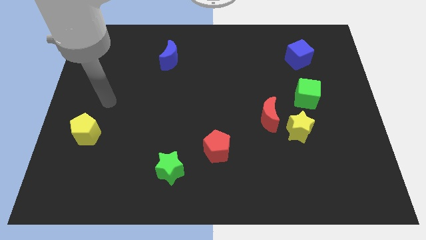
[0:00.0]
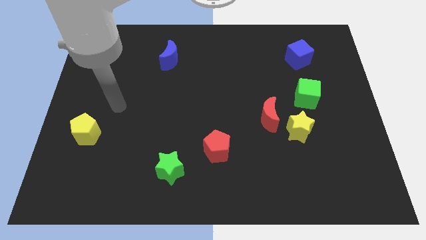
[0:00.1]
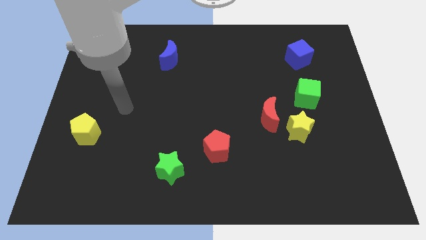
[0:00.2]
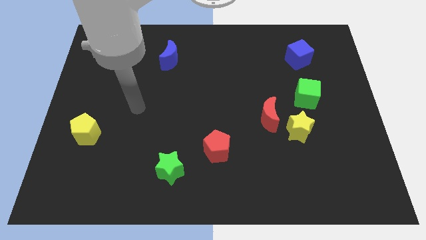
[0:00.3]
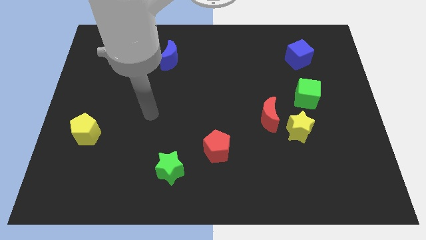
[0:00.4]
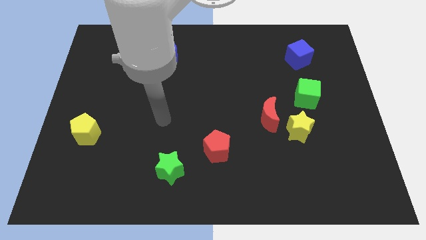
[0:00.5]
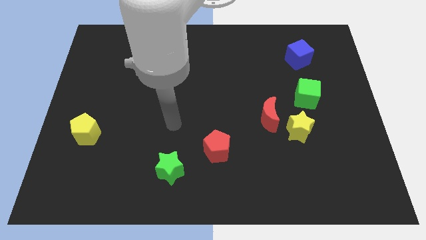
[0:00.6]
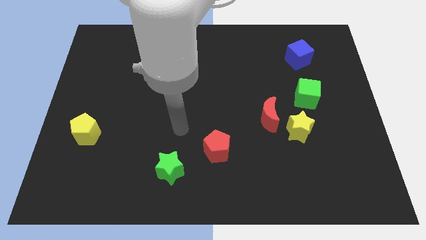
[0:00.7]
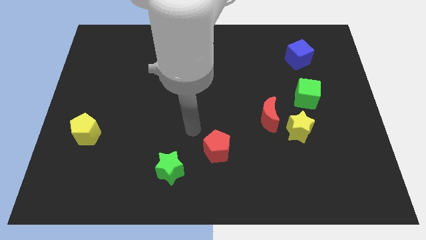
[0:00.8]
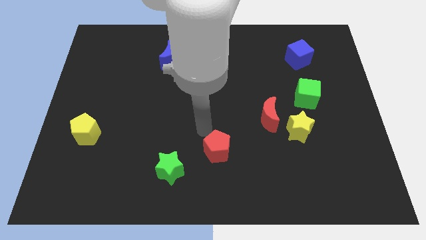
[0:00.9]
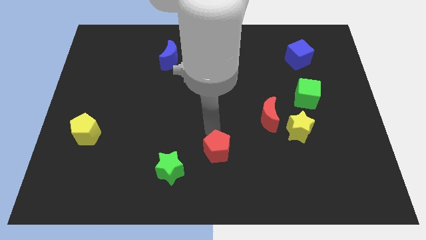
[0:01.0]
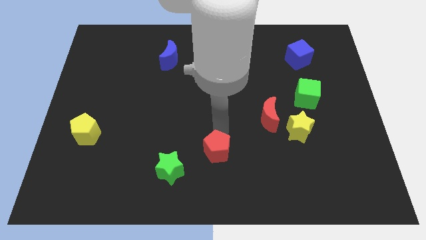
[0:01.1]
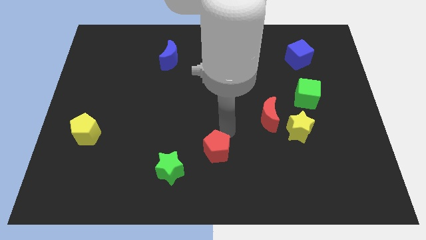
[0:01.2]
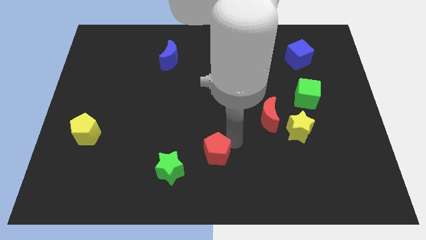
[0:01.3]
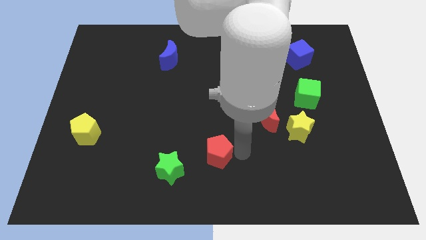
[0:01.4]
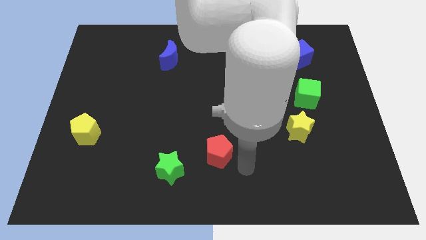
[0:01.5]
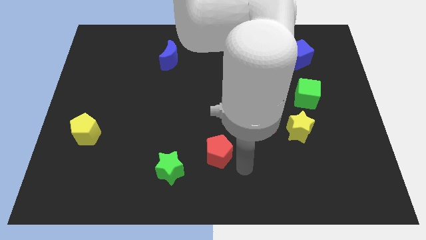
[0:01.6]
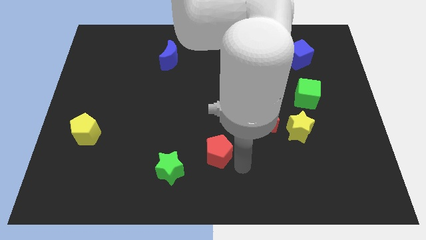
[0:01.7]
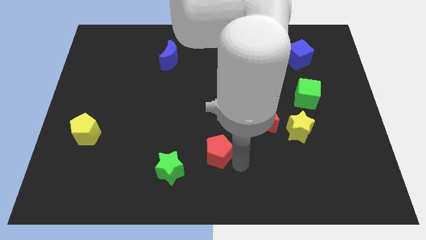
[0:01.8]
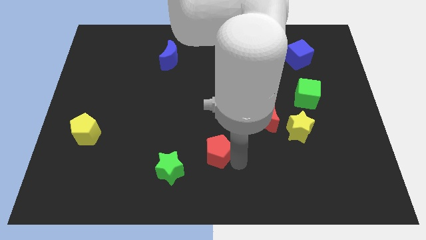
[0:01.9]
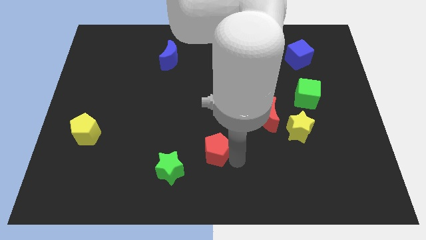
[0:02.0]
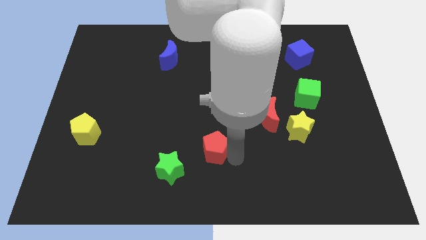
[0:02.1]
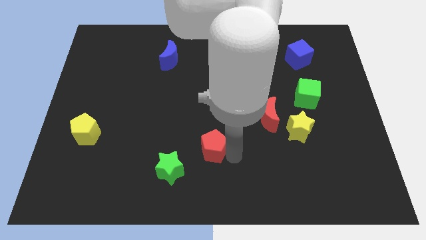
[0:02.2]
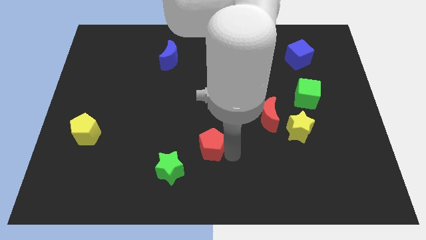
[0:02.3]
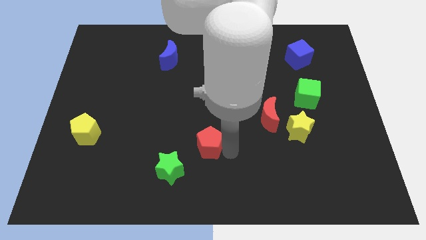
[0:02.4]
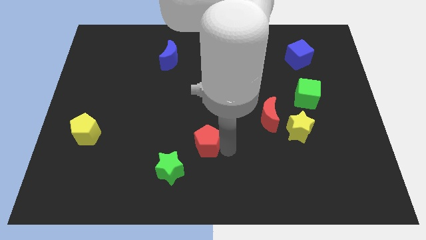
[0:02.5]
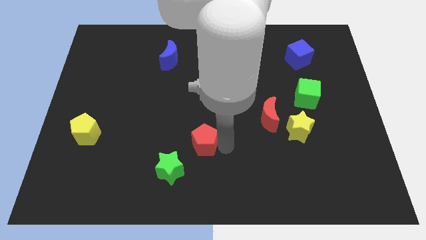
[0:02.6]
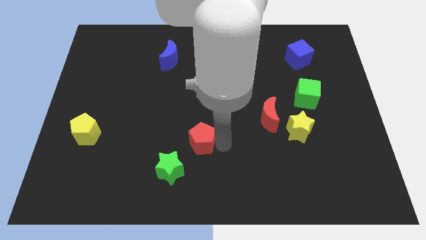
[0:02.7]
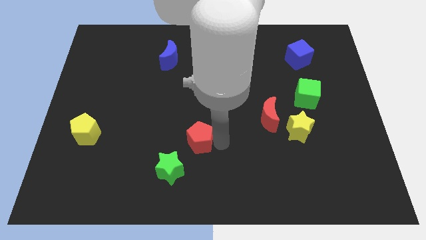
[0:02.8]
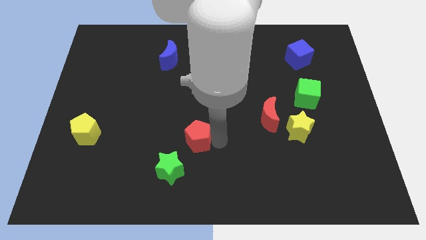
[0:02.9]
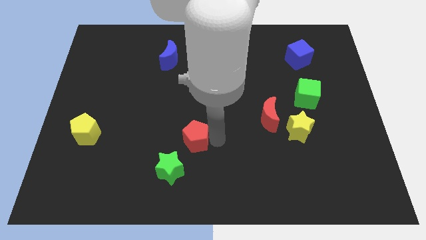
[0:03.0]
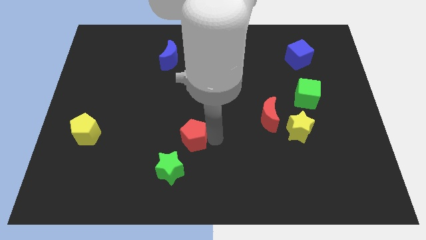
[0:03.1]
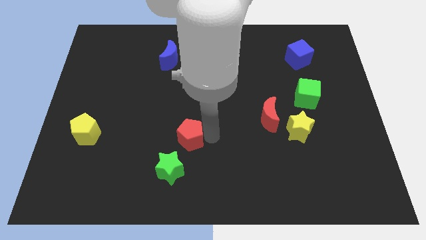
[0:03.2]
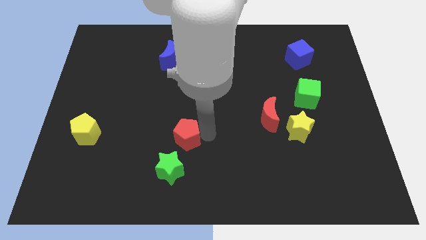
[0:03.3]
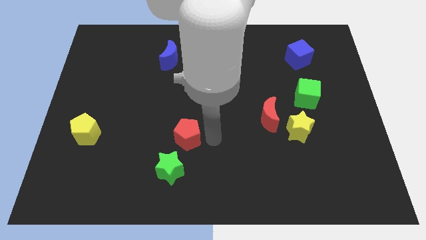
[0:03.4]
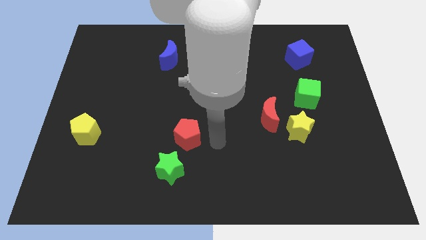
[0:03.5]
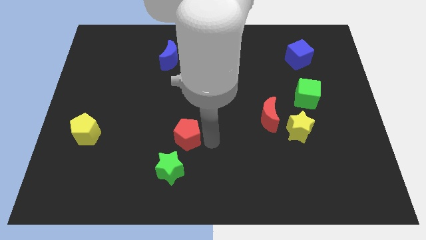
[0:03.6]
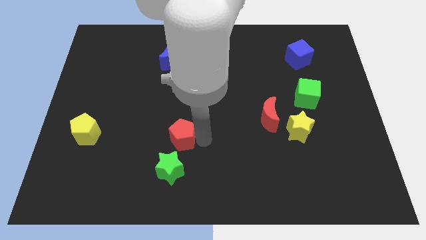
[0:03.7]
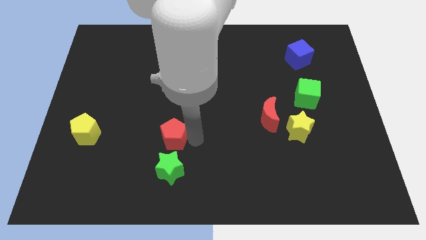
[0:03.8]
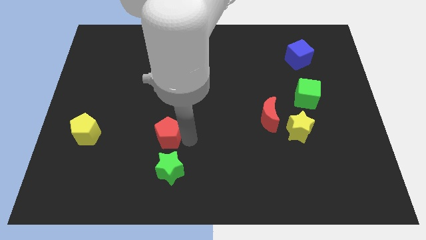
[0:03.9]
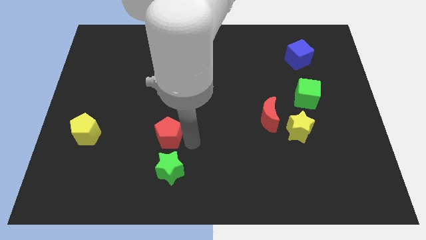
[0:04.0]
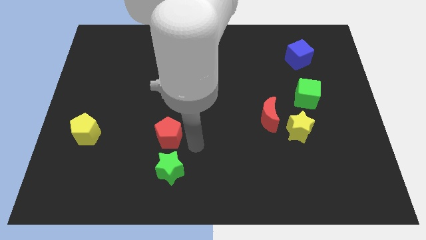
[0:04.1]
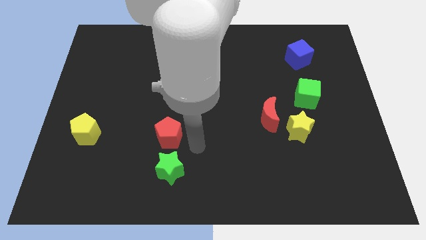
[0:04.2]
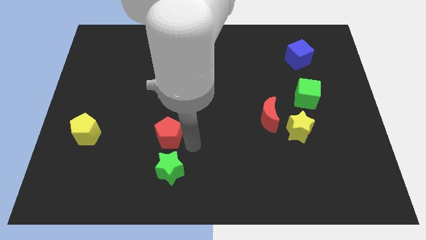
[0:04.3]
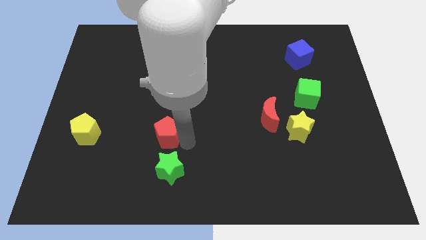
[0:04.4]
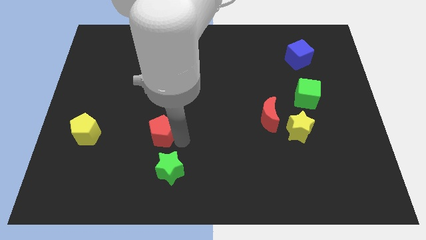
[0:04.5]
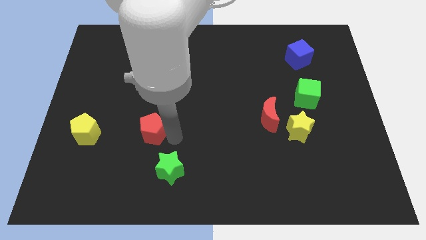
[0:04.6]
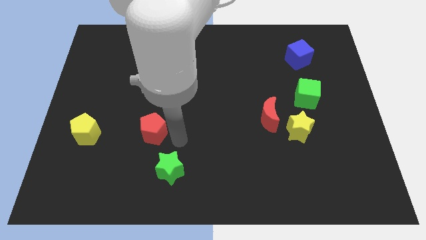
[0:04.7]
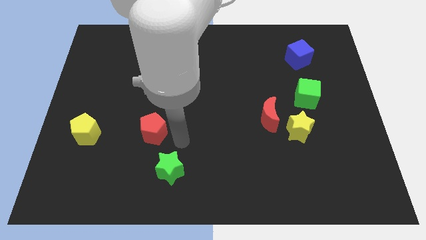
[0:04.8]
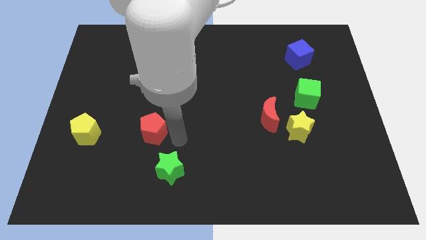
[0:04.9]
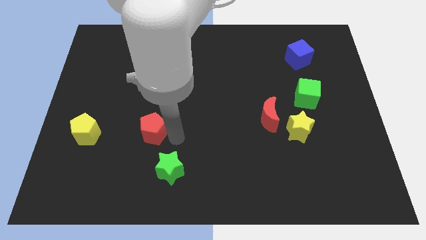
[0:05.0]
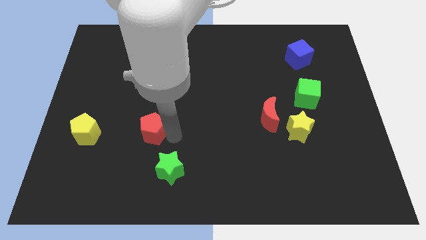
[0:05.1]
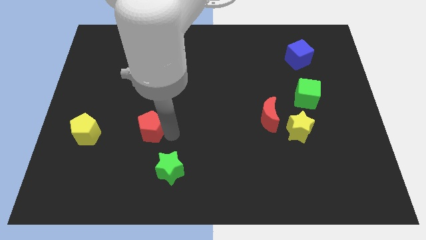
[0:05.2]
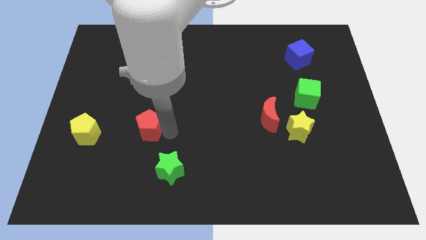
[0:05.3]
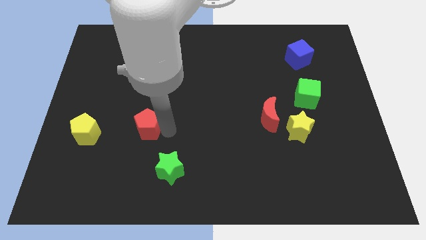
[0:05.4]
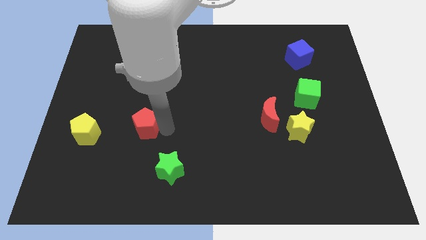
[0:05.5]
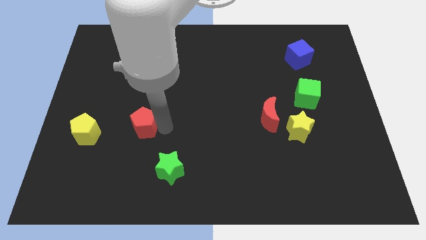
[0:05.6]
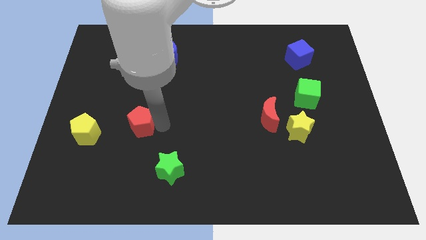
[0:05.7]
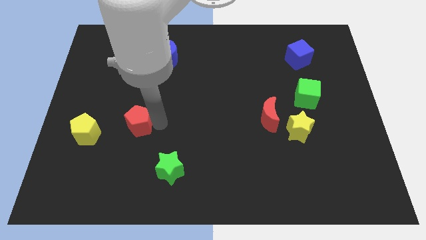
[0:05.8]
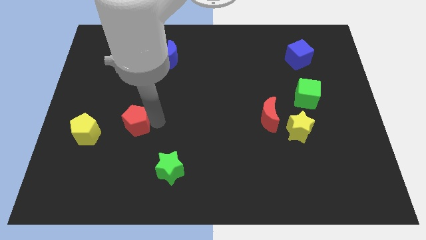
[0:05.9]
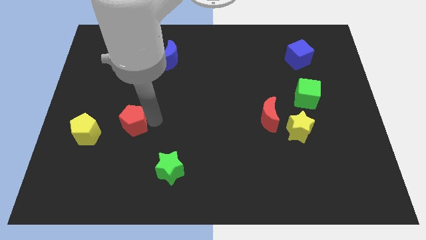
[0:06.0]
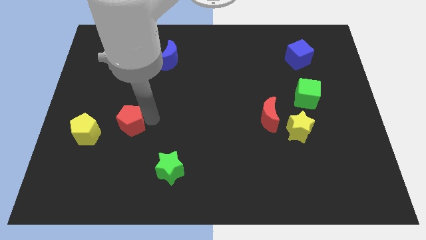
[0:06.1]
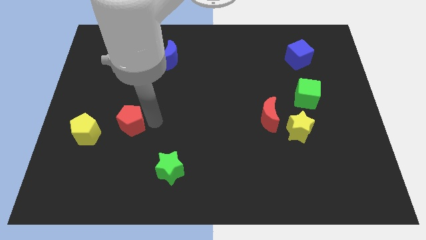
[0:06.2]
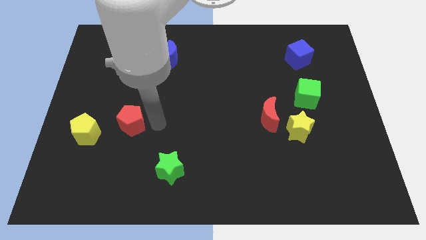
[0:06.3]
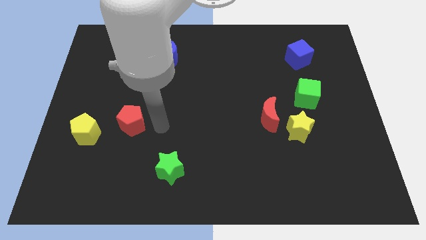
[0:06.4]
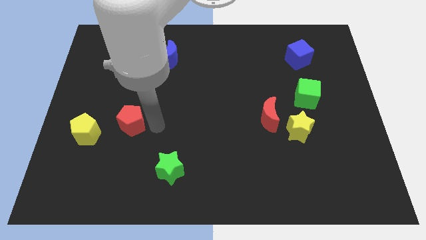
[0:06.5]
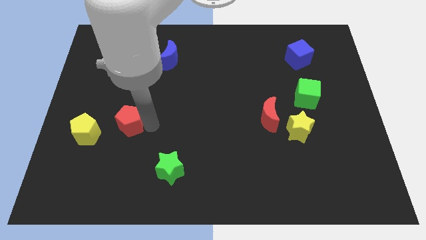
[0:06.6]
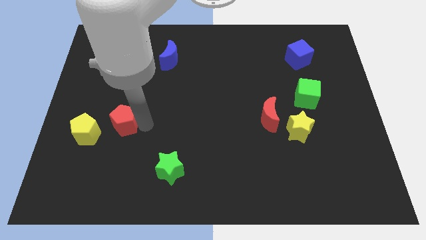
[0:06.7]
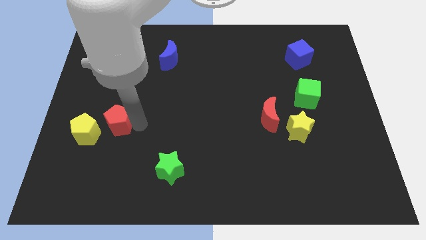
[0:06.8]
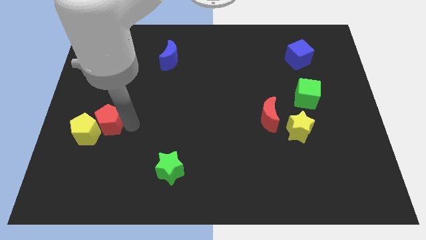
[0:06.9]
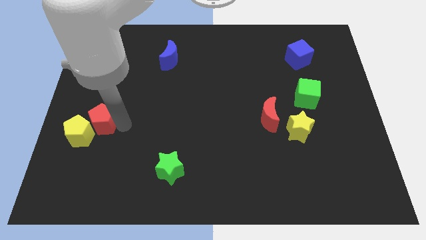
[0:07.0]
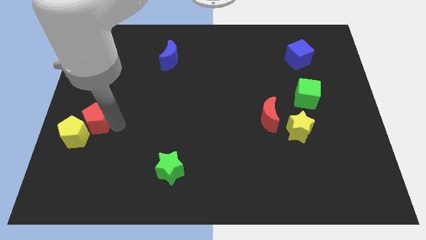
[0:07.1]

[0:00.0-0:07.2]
put the red pentagon to the left side
